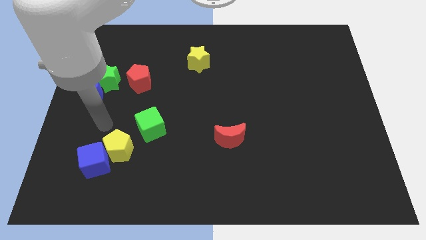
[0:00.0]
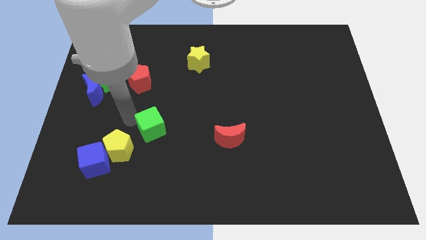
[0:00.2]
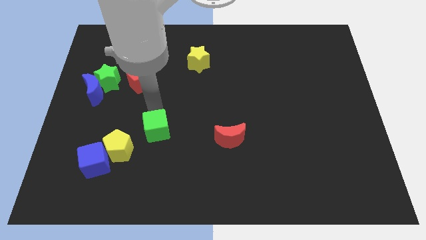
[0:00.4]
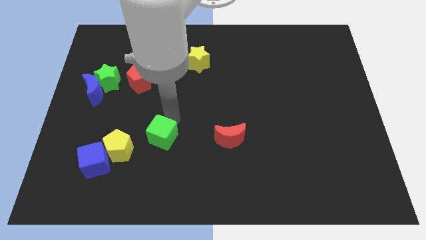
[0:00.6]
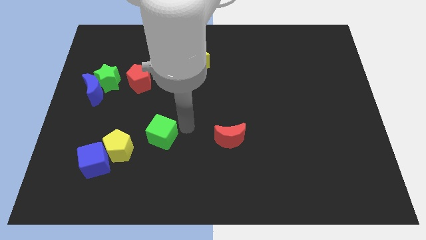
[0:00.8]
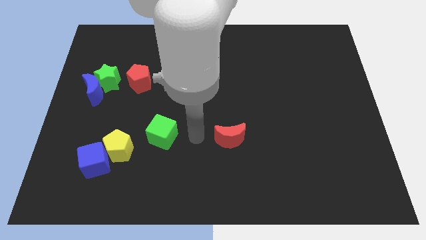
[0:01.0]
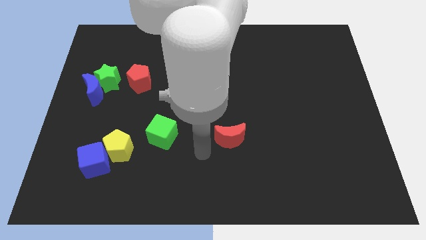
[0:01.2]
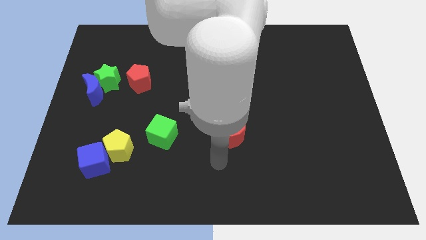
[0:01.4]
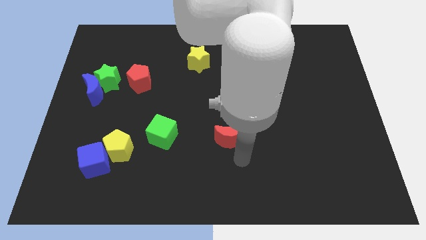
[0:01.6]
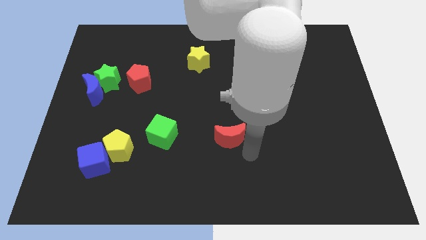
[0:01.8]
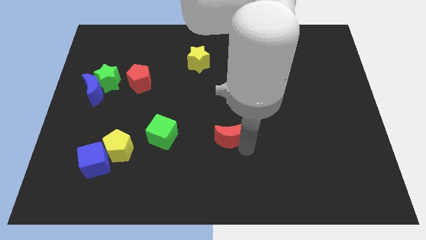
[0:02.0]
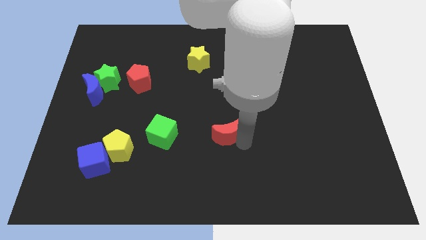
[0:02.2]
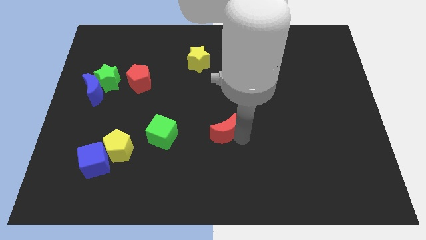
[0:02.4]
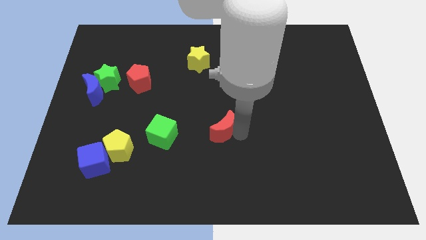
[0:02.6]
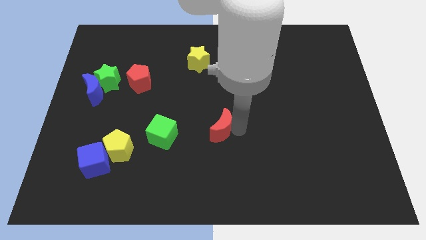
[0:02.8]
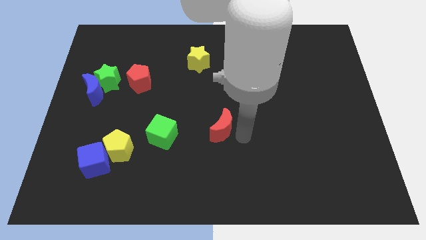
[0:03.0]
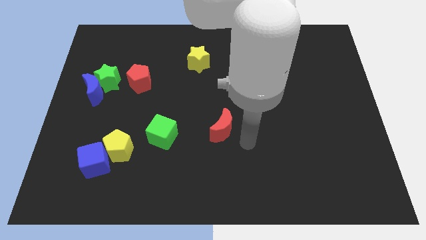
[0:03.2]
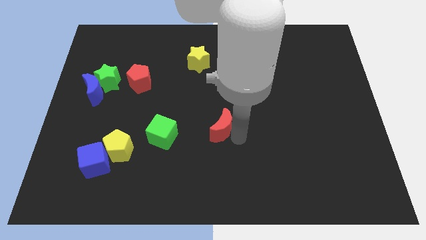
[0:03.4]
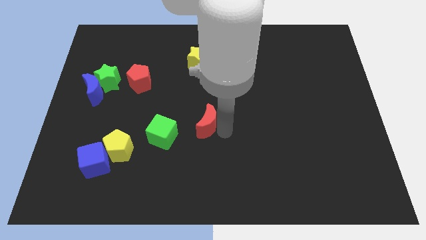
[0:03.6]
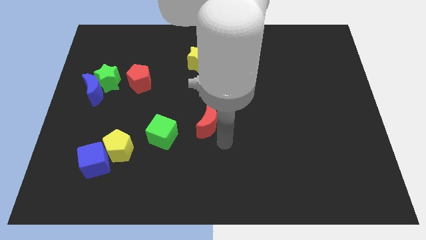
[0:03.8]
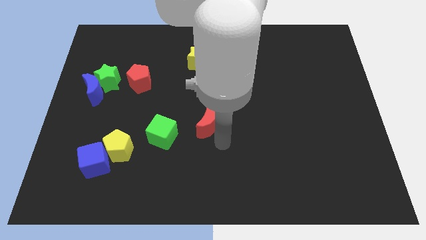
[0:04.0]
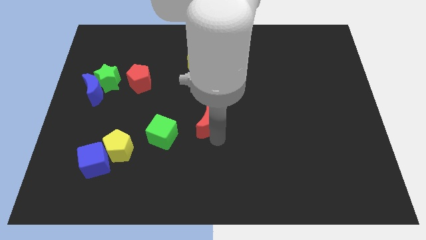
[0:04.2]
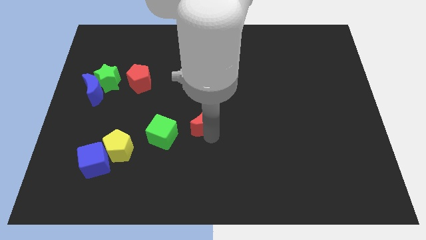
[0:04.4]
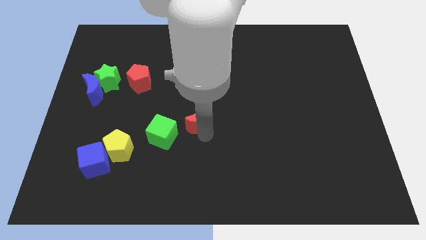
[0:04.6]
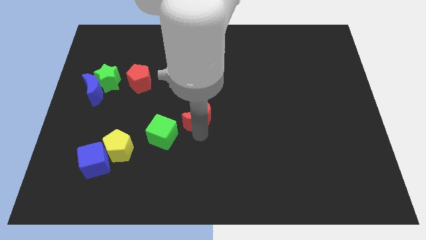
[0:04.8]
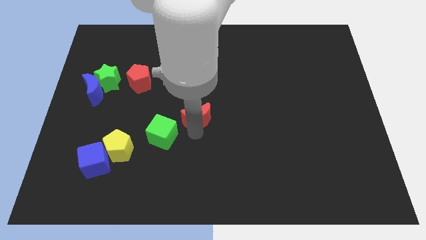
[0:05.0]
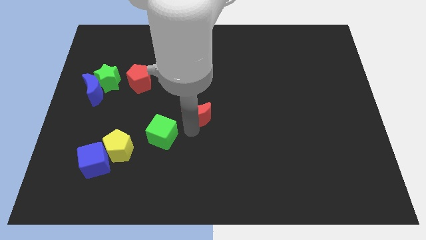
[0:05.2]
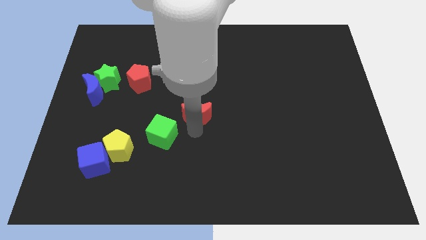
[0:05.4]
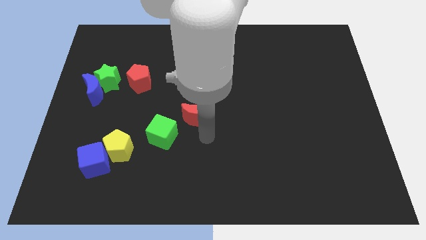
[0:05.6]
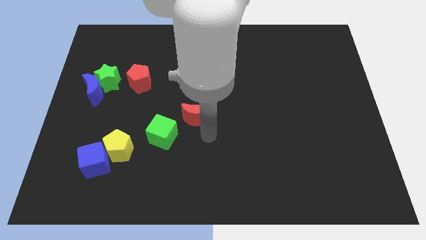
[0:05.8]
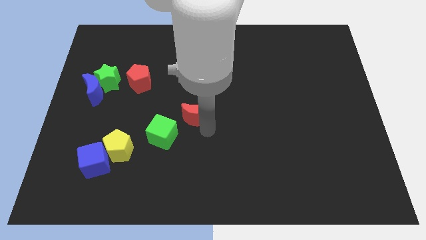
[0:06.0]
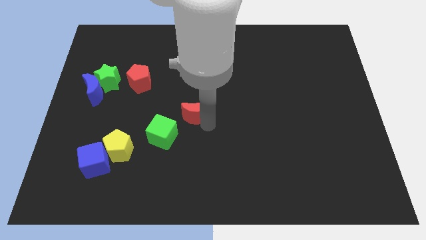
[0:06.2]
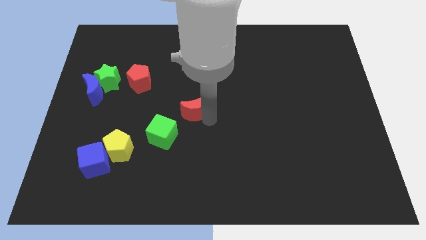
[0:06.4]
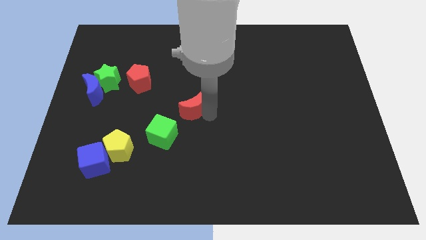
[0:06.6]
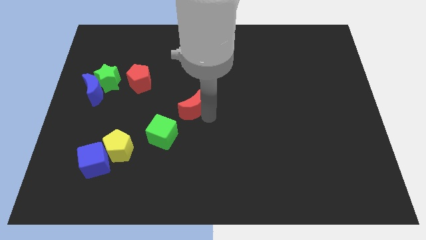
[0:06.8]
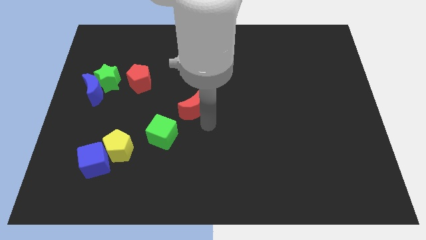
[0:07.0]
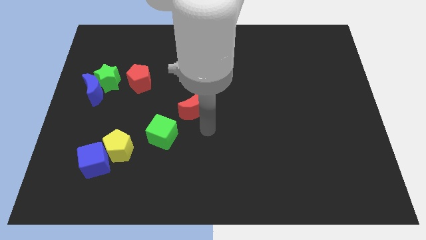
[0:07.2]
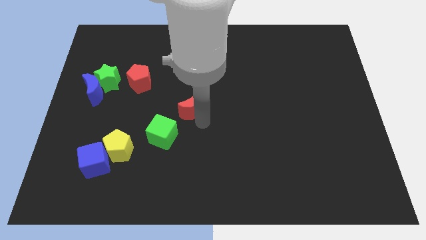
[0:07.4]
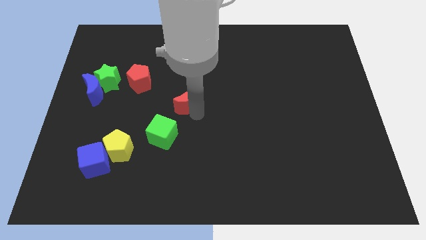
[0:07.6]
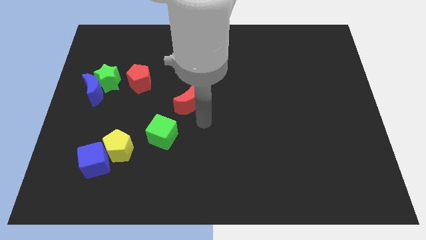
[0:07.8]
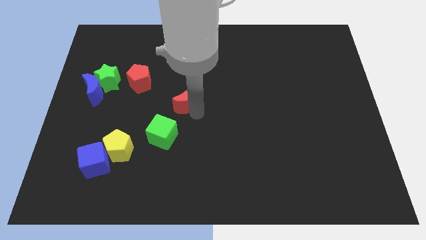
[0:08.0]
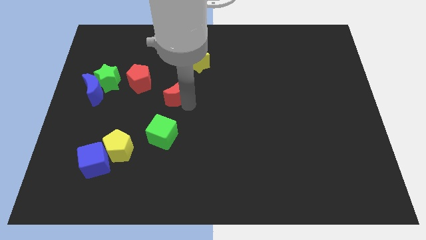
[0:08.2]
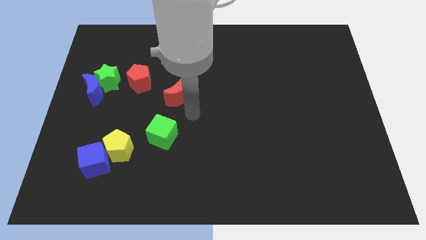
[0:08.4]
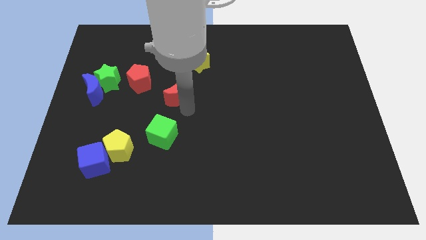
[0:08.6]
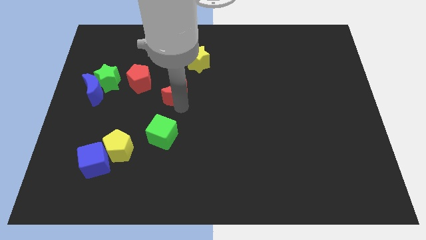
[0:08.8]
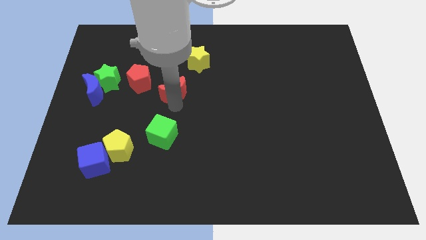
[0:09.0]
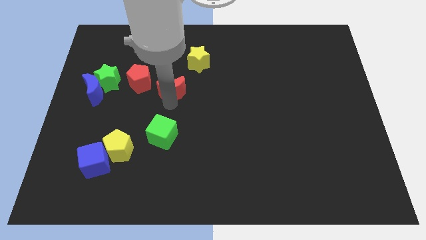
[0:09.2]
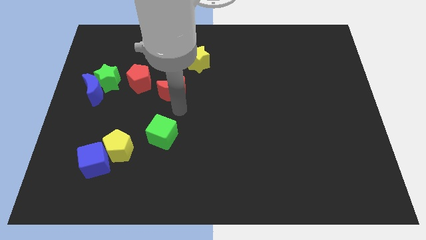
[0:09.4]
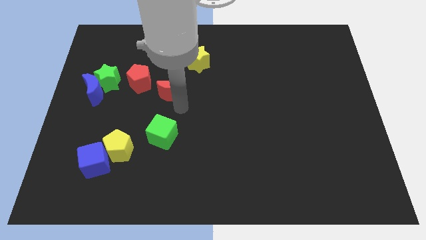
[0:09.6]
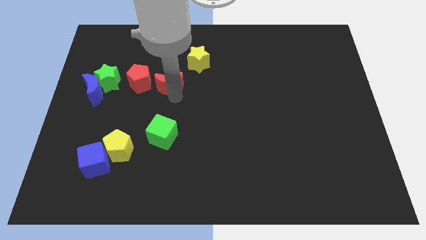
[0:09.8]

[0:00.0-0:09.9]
slide the red moon upwards and then left

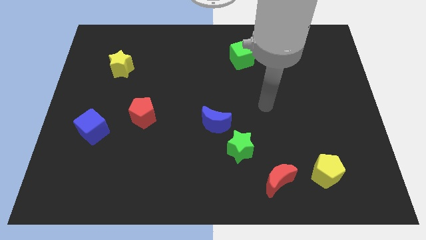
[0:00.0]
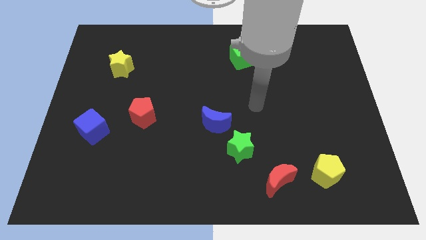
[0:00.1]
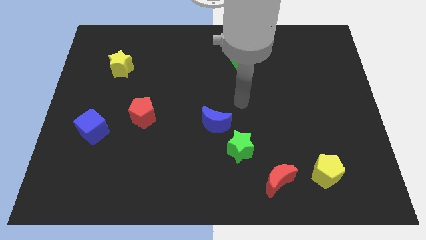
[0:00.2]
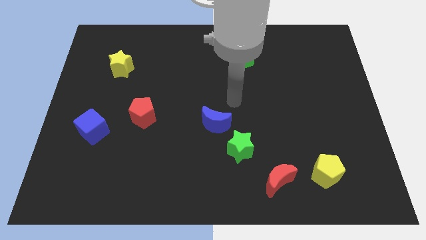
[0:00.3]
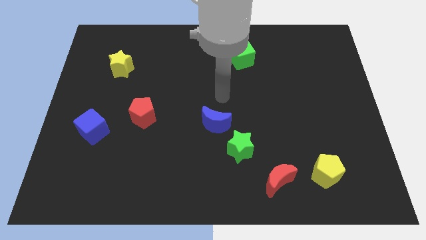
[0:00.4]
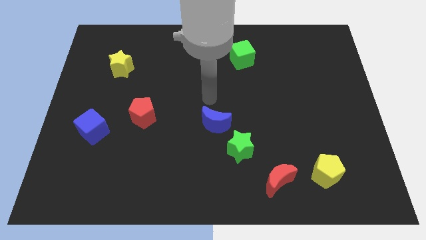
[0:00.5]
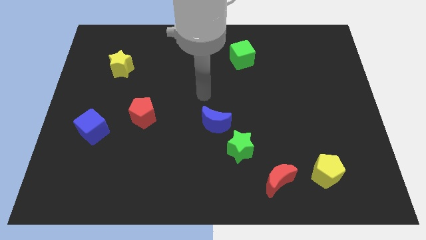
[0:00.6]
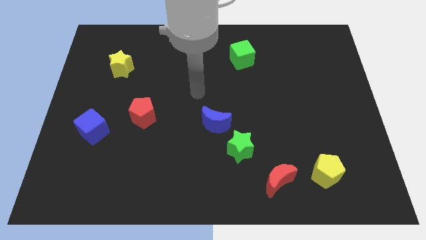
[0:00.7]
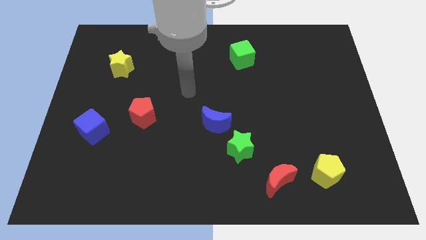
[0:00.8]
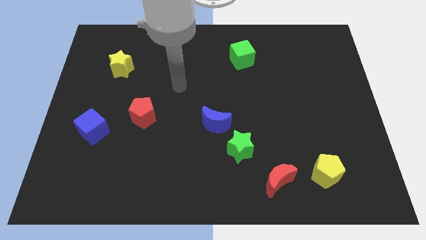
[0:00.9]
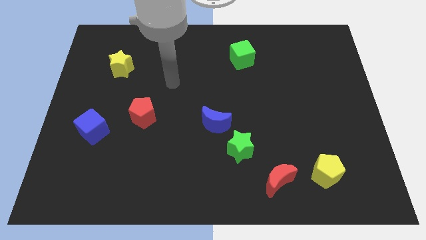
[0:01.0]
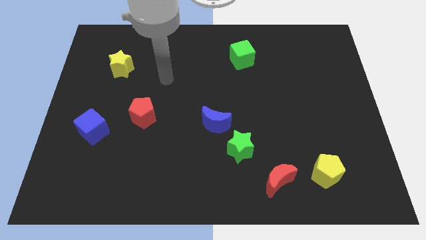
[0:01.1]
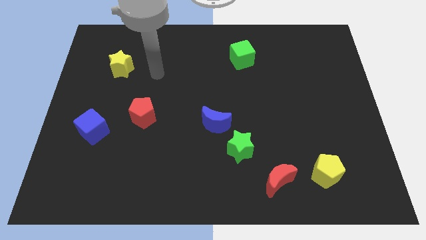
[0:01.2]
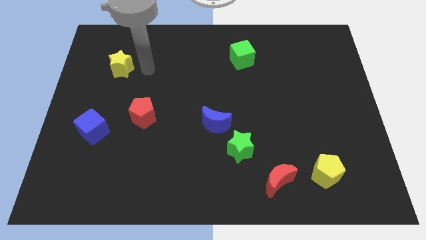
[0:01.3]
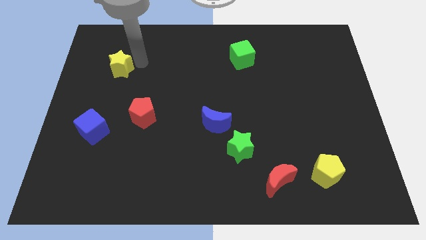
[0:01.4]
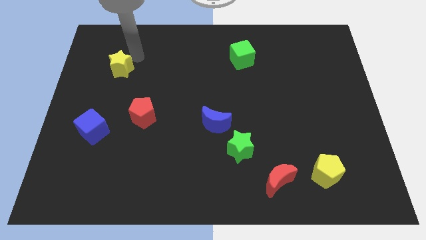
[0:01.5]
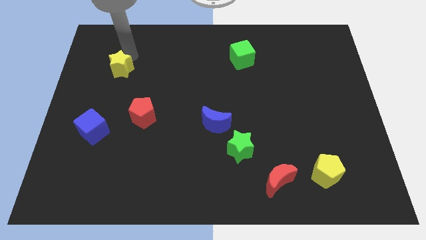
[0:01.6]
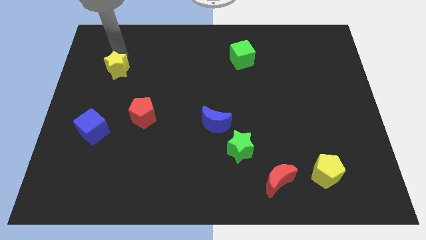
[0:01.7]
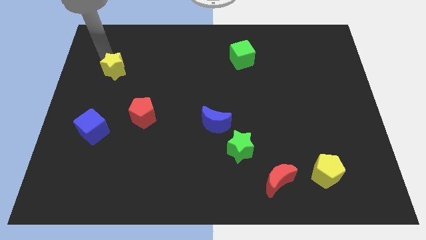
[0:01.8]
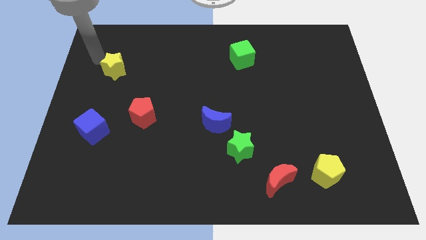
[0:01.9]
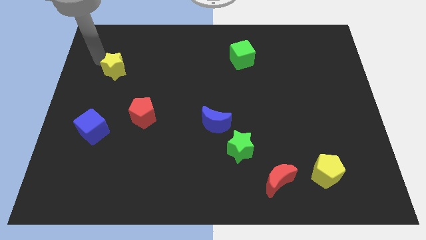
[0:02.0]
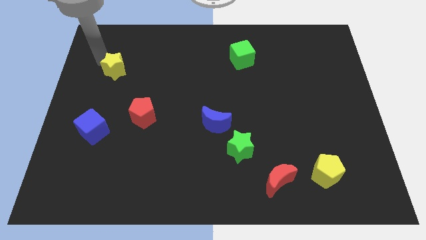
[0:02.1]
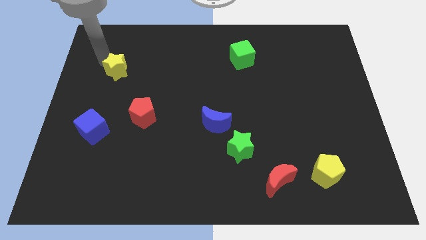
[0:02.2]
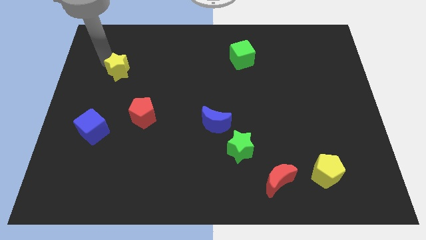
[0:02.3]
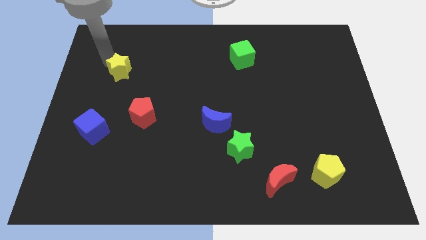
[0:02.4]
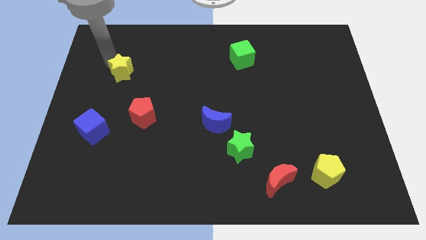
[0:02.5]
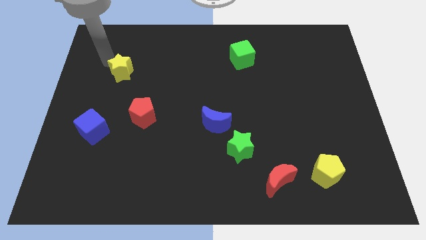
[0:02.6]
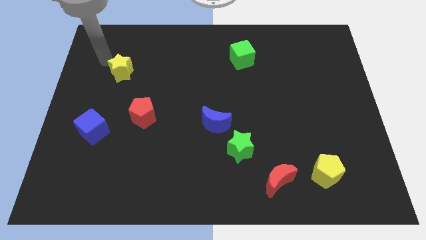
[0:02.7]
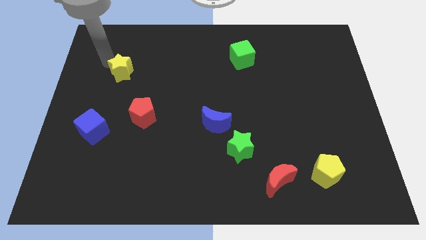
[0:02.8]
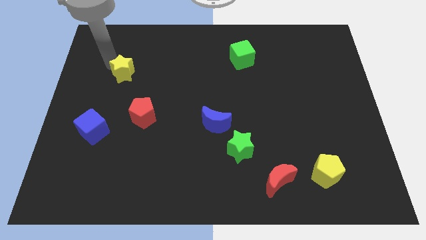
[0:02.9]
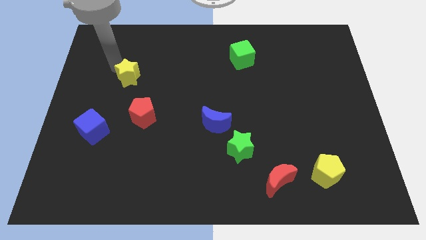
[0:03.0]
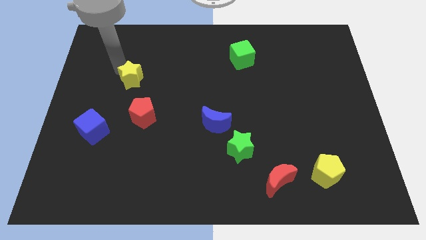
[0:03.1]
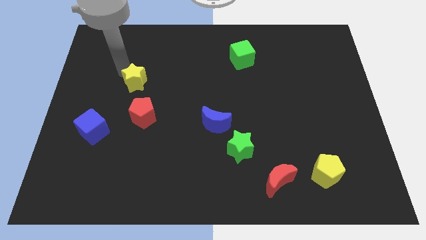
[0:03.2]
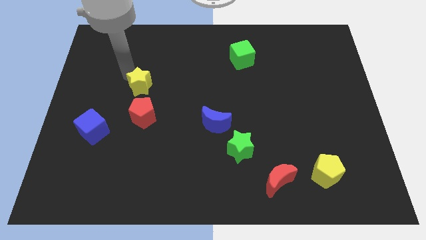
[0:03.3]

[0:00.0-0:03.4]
slightly slide the yellow star diagonally down and right
